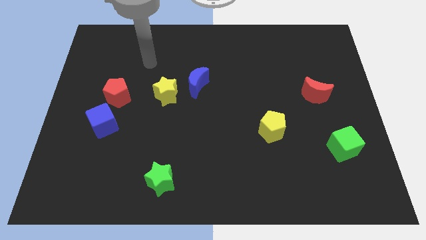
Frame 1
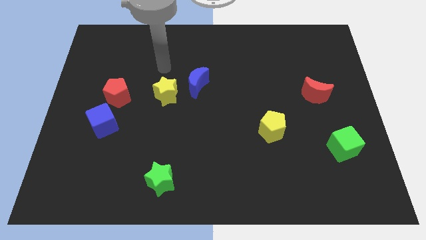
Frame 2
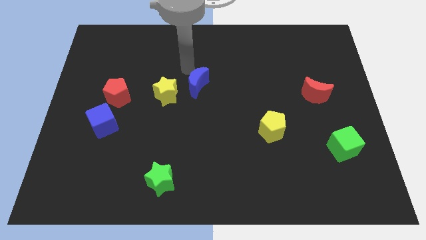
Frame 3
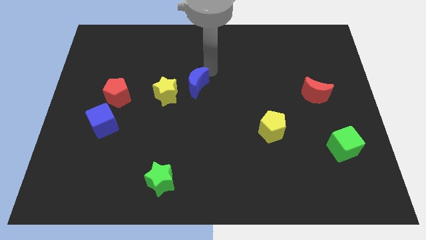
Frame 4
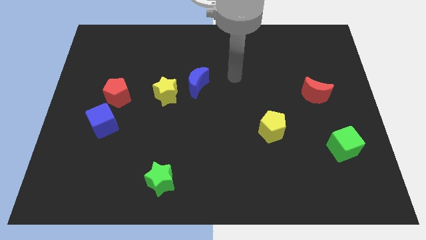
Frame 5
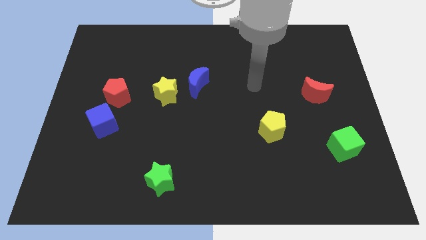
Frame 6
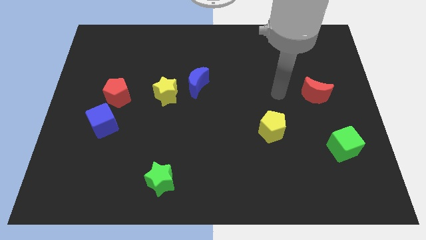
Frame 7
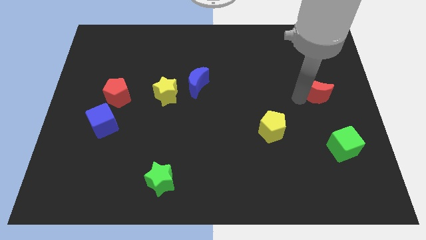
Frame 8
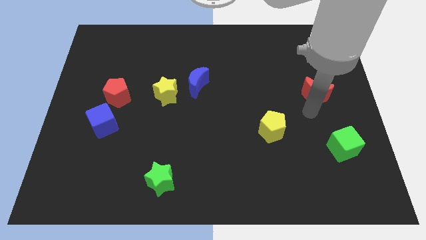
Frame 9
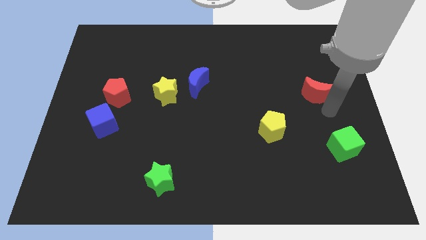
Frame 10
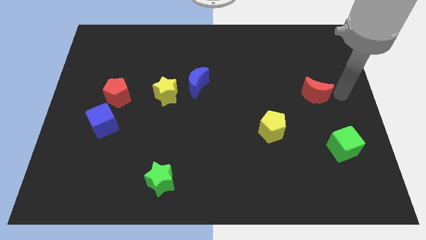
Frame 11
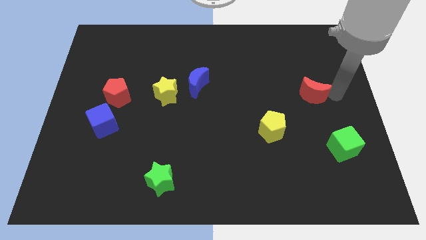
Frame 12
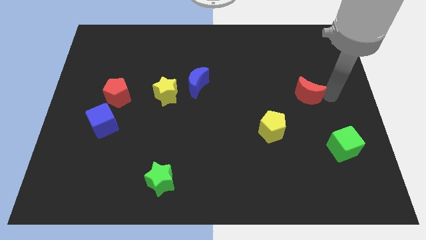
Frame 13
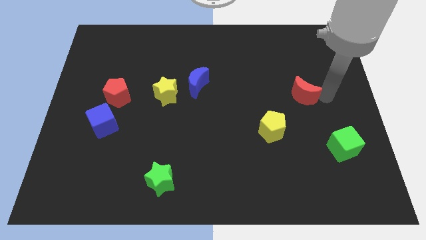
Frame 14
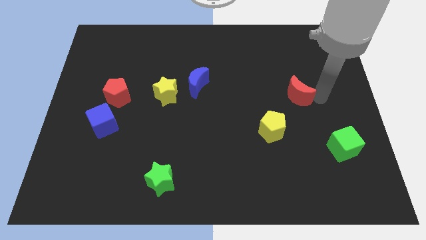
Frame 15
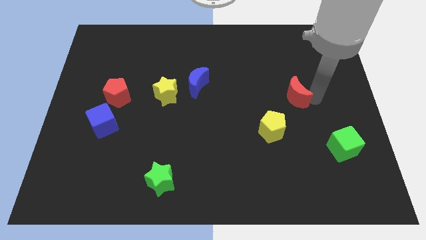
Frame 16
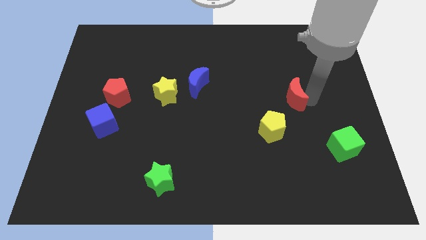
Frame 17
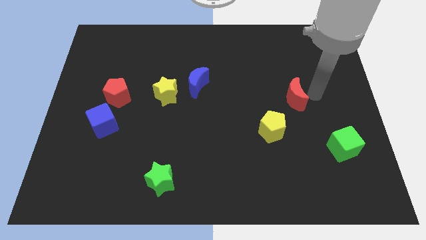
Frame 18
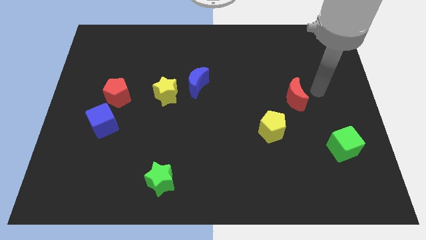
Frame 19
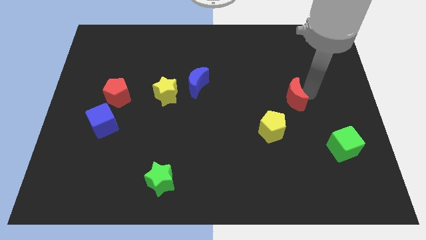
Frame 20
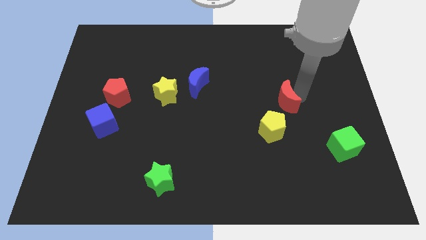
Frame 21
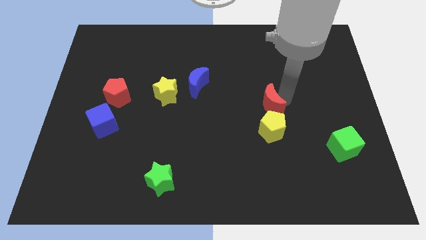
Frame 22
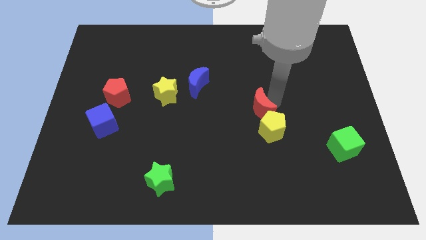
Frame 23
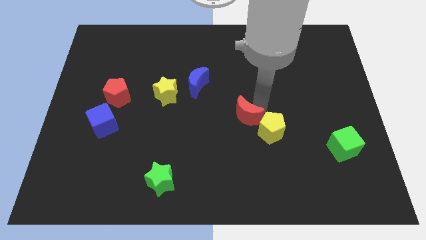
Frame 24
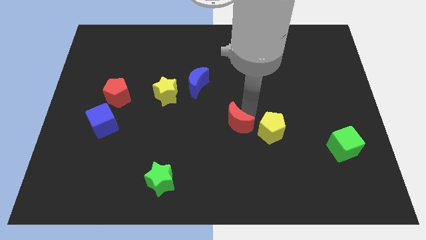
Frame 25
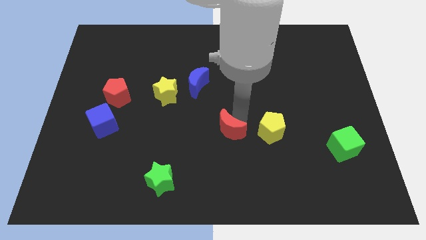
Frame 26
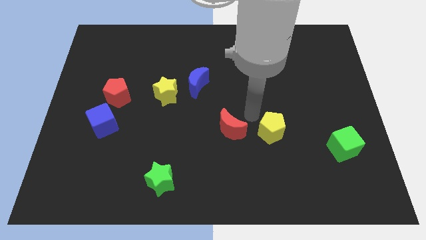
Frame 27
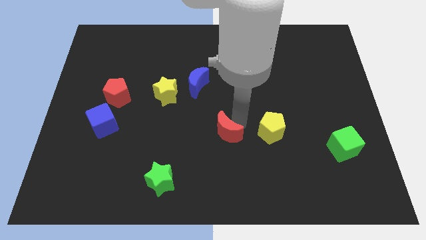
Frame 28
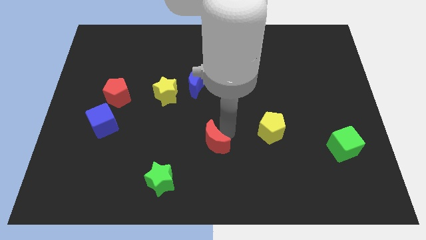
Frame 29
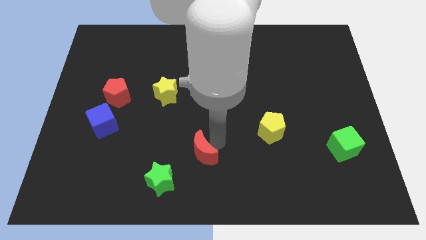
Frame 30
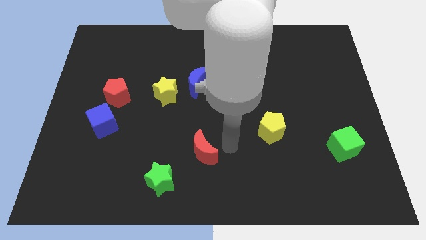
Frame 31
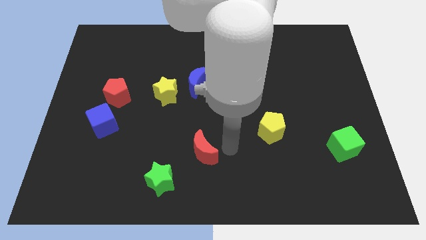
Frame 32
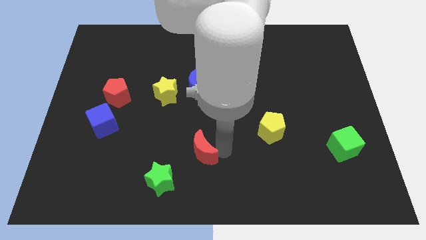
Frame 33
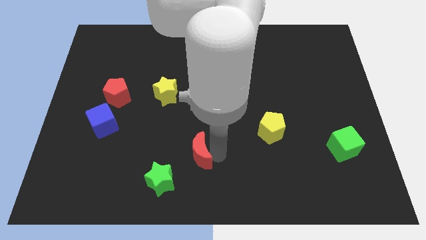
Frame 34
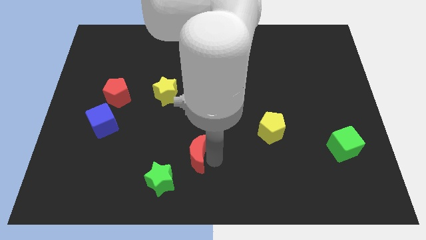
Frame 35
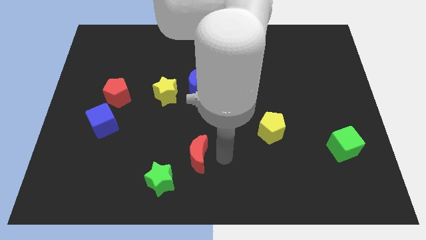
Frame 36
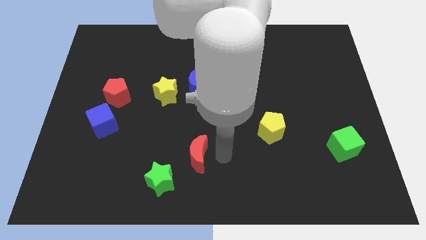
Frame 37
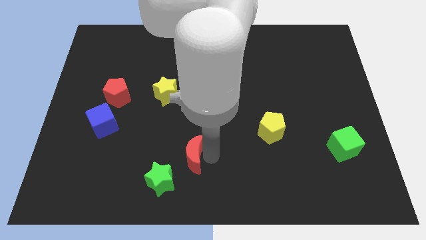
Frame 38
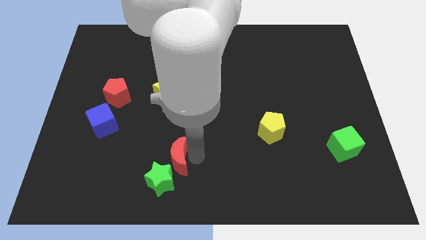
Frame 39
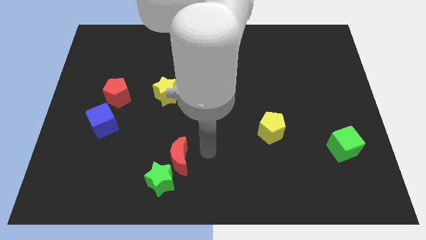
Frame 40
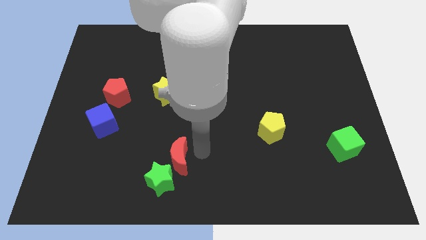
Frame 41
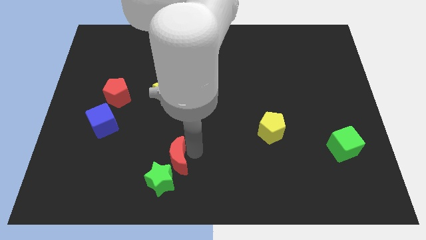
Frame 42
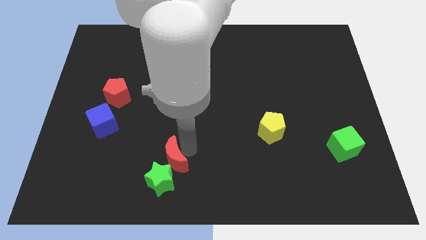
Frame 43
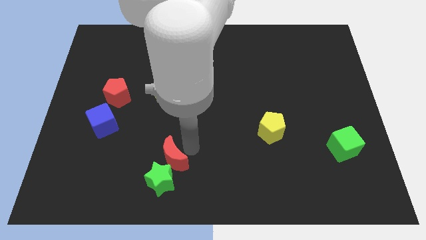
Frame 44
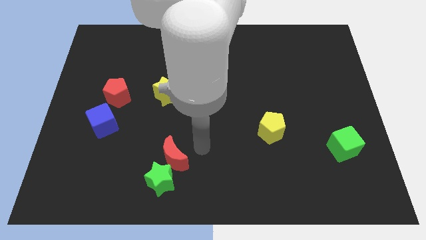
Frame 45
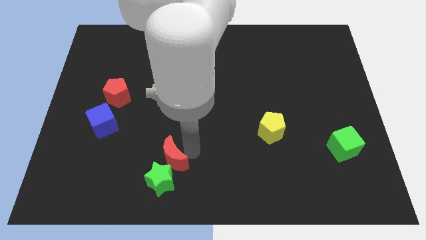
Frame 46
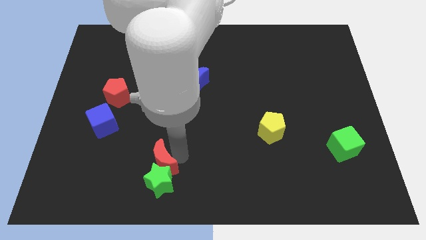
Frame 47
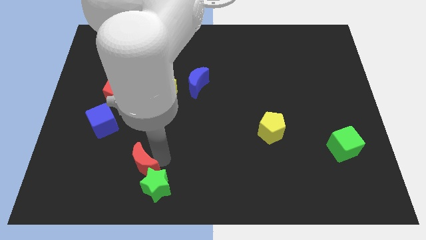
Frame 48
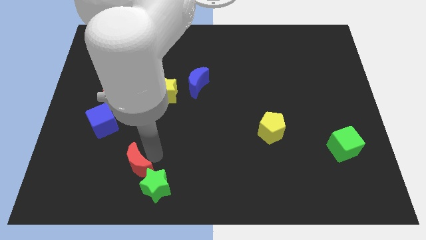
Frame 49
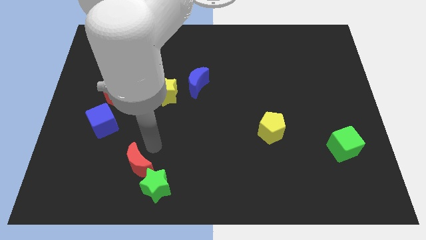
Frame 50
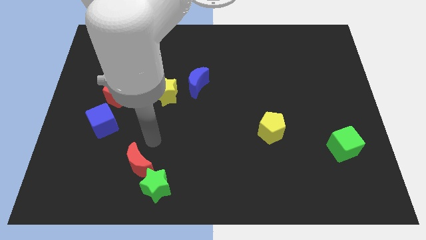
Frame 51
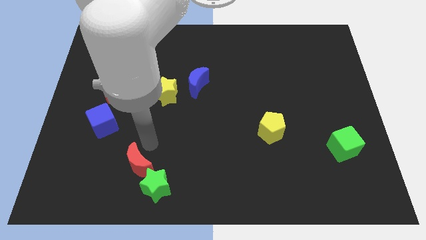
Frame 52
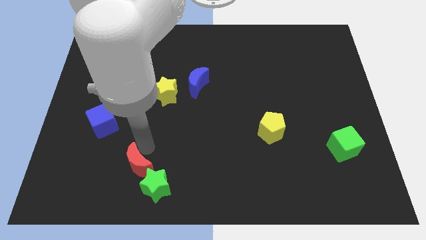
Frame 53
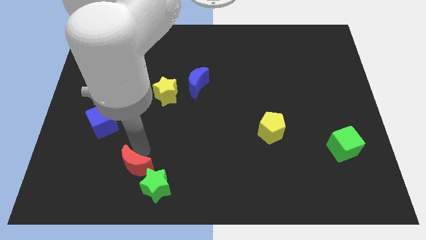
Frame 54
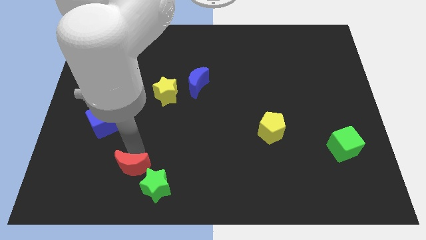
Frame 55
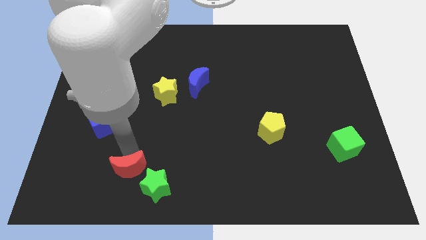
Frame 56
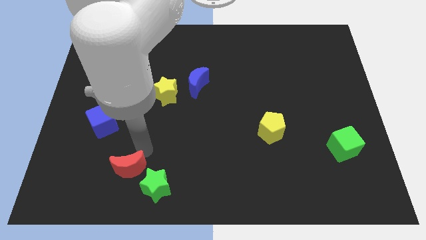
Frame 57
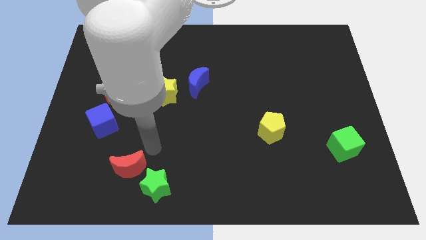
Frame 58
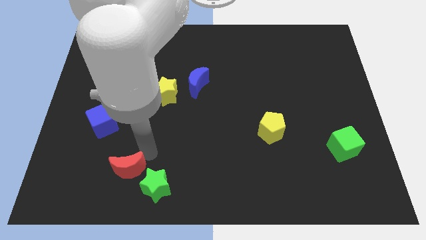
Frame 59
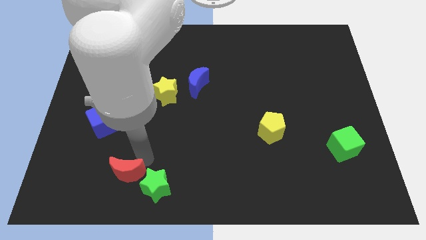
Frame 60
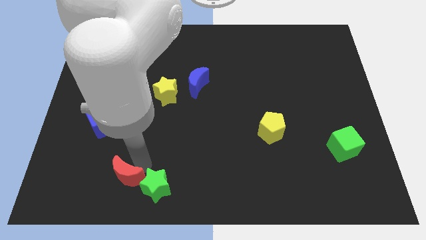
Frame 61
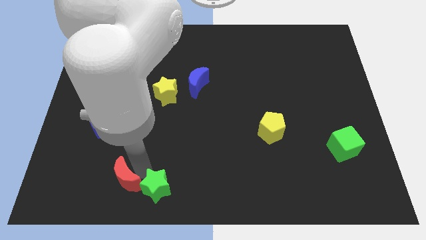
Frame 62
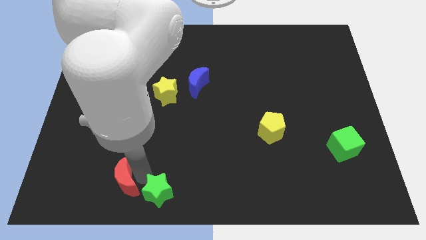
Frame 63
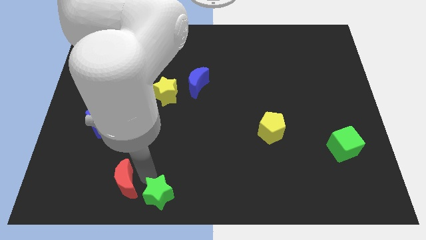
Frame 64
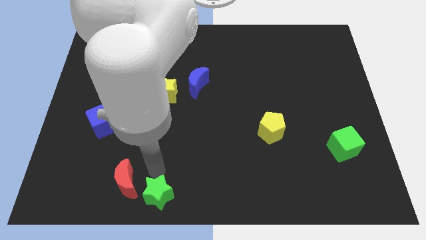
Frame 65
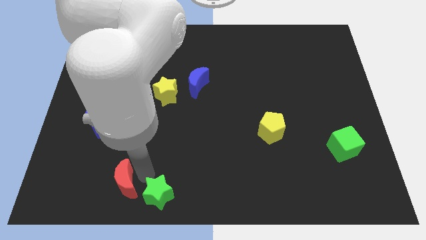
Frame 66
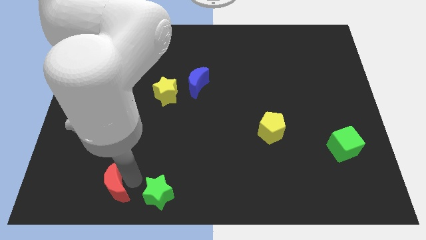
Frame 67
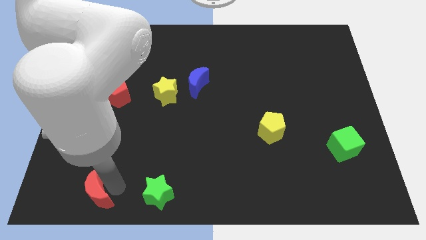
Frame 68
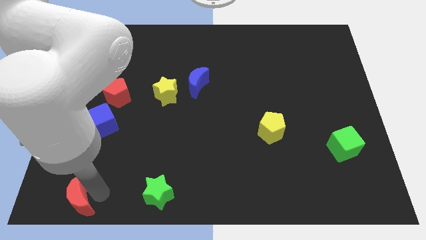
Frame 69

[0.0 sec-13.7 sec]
push the red moon to the bottom left of the board

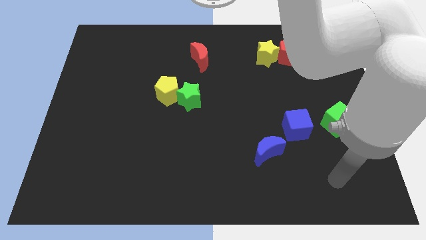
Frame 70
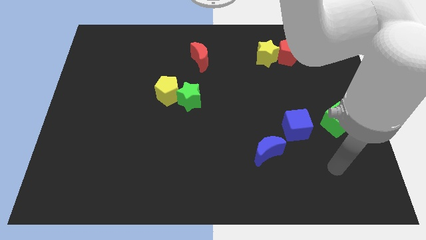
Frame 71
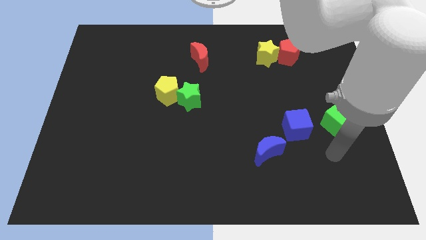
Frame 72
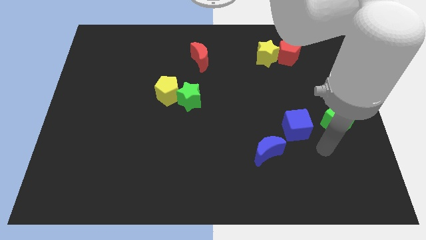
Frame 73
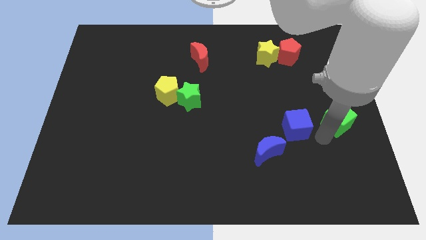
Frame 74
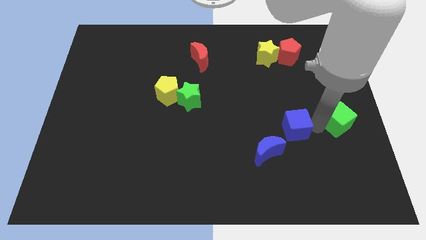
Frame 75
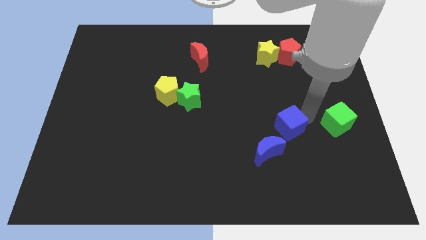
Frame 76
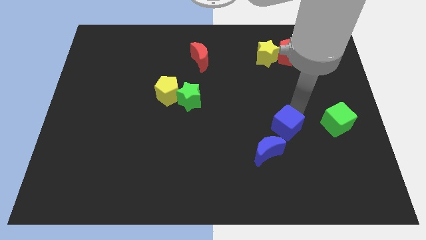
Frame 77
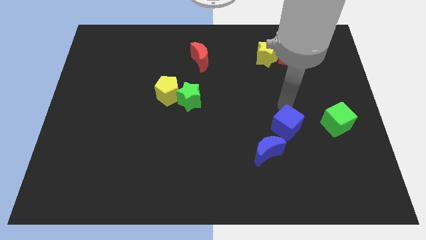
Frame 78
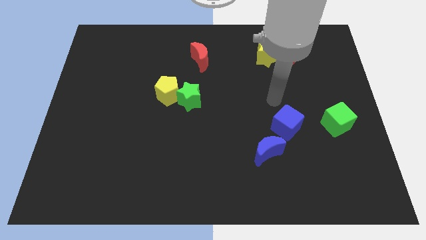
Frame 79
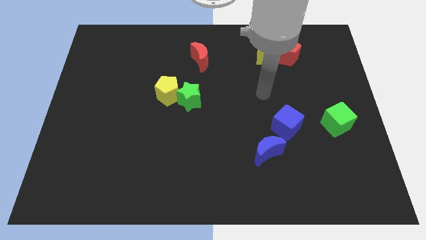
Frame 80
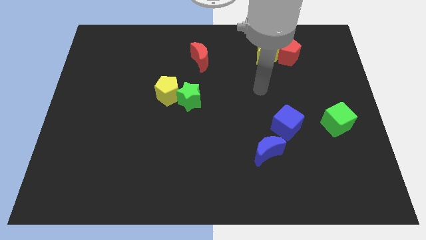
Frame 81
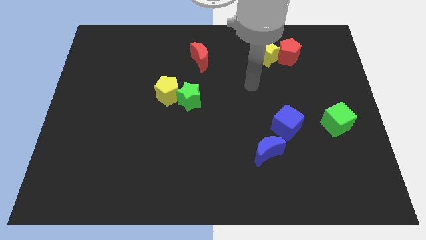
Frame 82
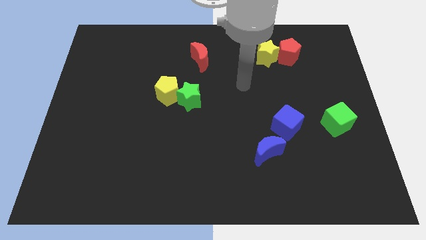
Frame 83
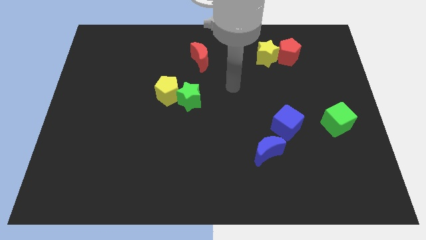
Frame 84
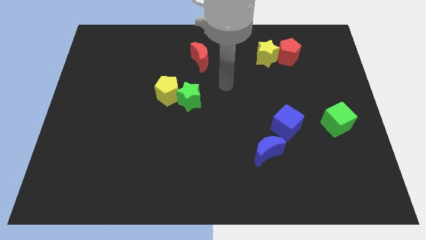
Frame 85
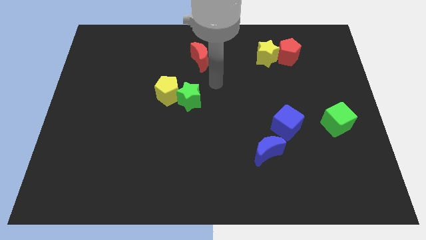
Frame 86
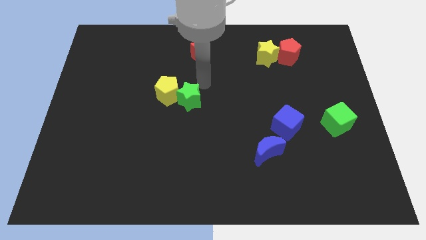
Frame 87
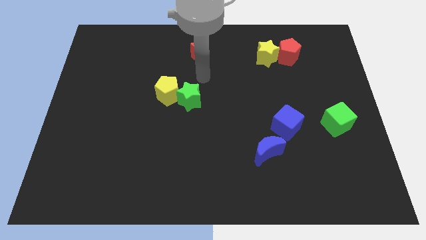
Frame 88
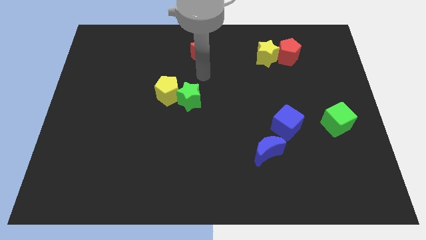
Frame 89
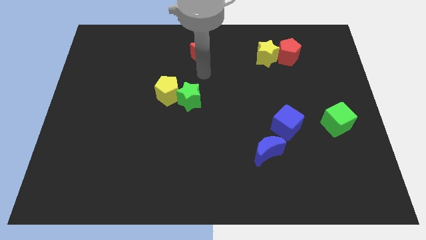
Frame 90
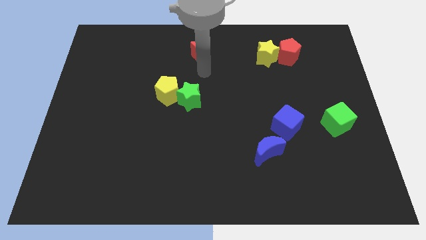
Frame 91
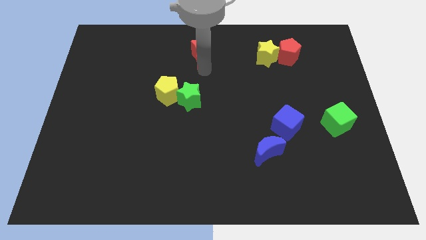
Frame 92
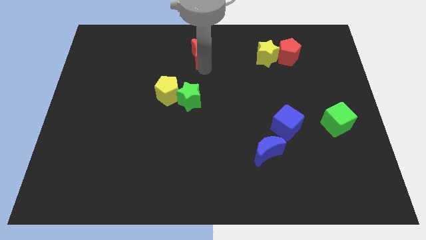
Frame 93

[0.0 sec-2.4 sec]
put the red moon to the towards your base
